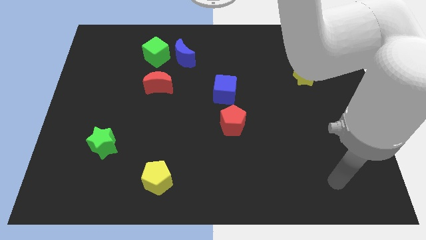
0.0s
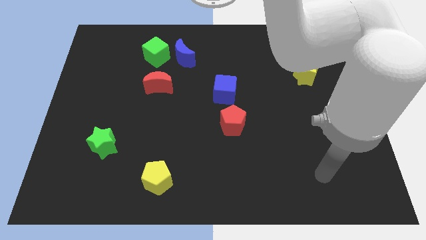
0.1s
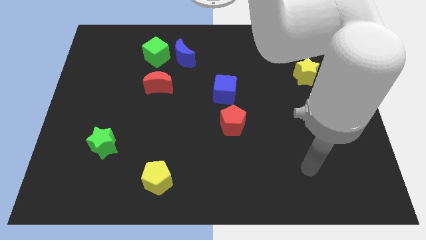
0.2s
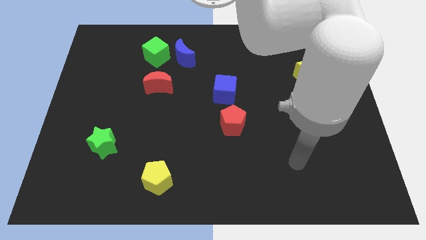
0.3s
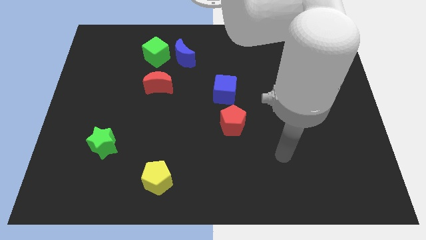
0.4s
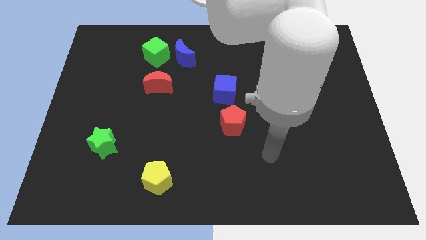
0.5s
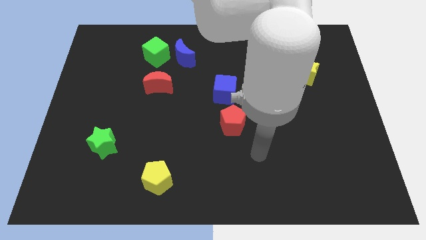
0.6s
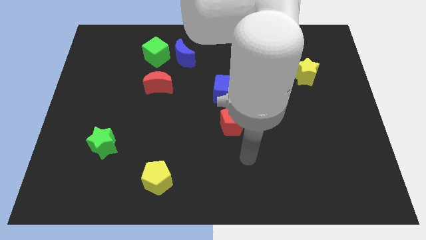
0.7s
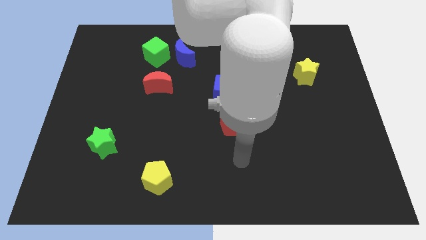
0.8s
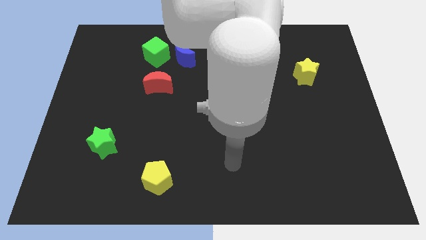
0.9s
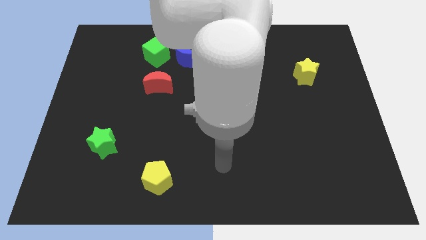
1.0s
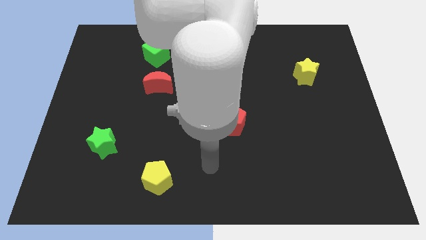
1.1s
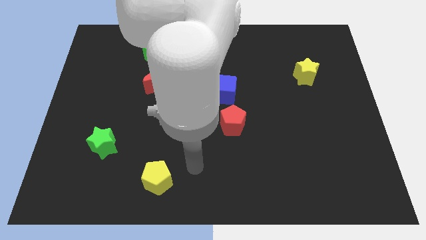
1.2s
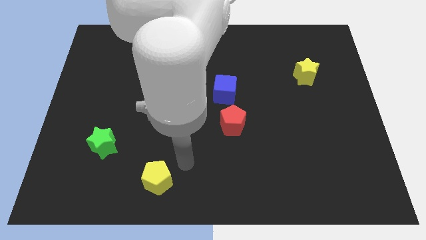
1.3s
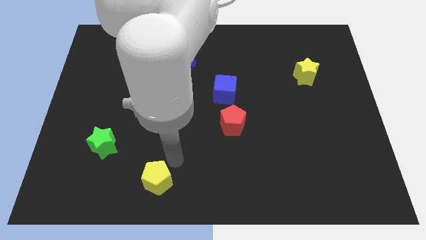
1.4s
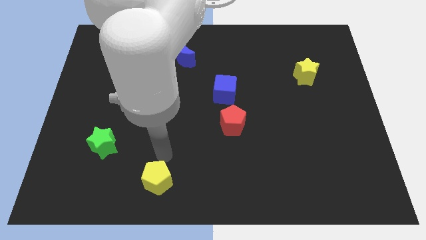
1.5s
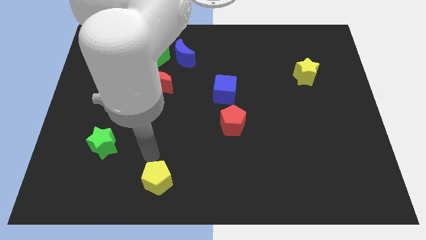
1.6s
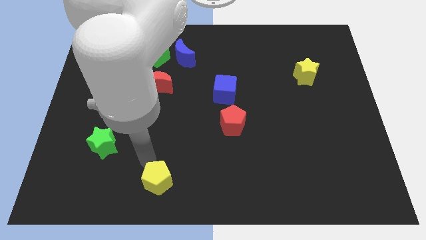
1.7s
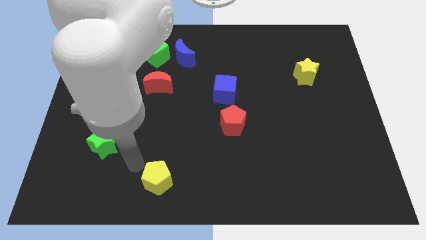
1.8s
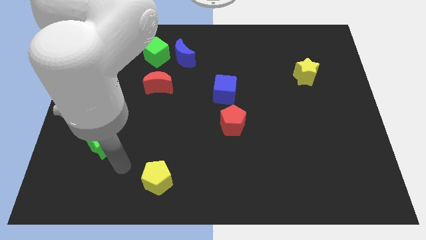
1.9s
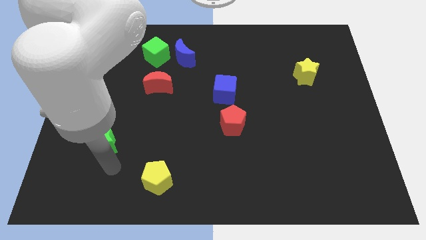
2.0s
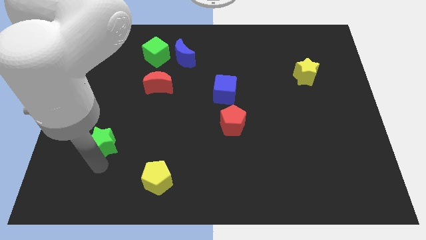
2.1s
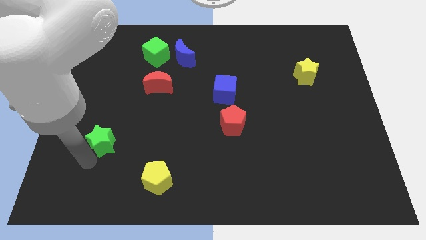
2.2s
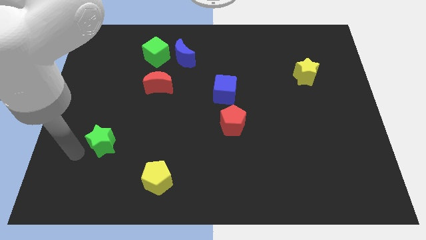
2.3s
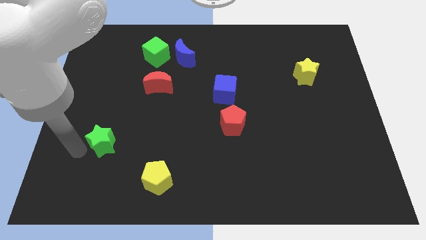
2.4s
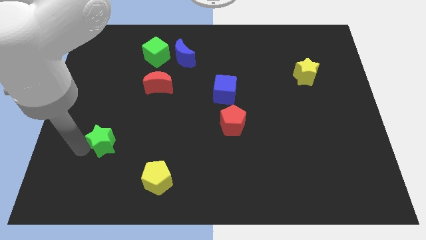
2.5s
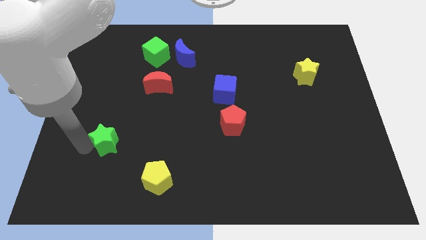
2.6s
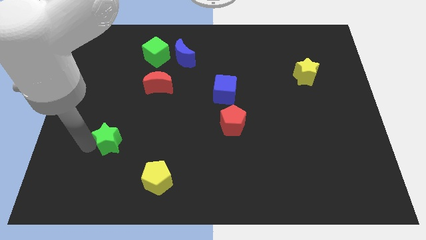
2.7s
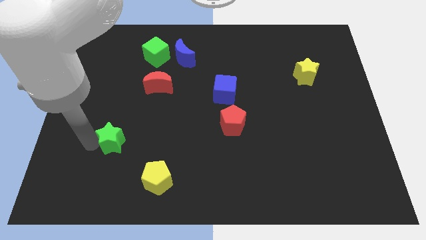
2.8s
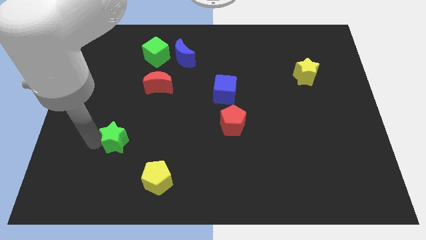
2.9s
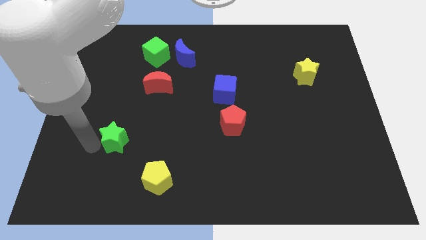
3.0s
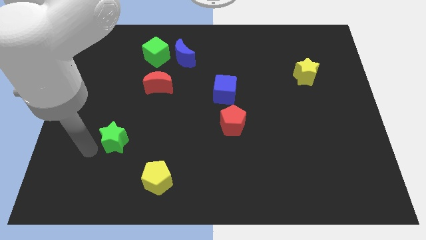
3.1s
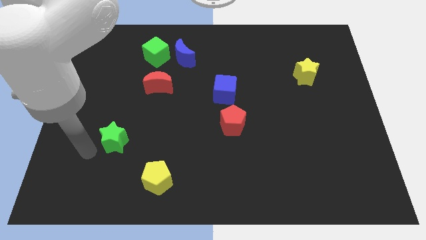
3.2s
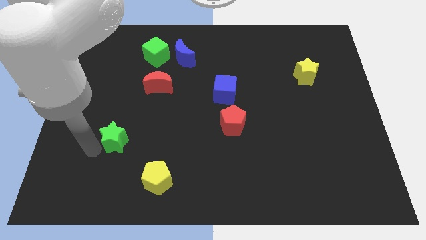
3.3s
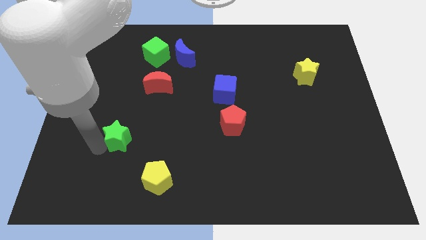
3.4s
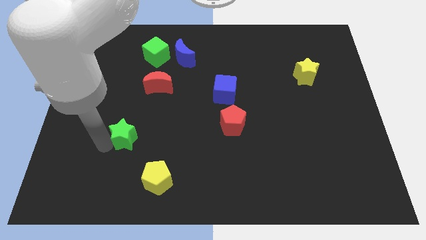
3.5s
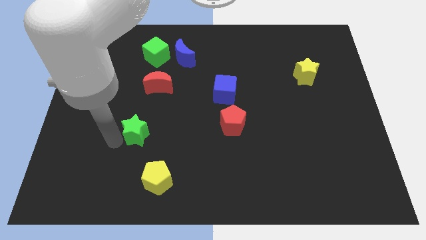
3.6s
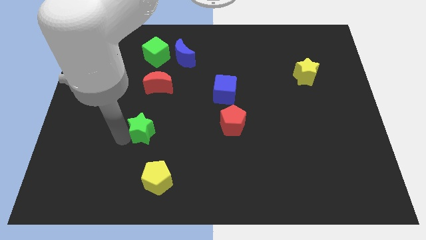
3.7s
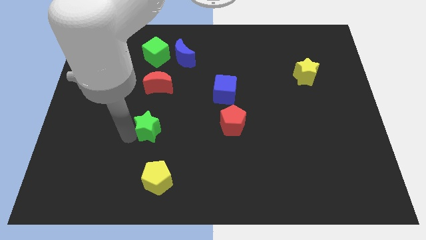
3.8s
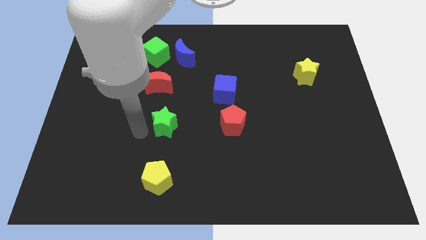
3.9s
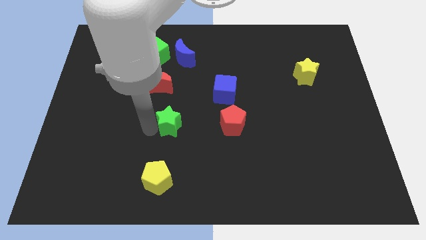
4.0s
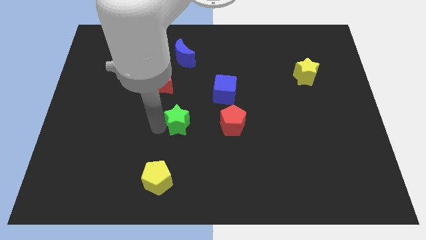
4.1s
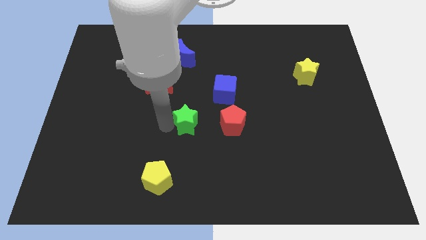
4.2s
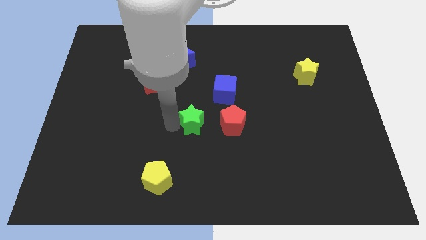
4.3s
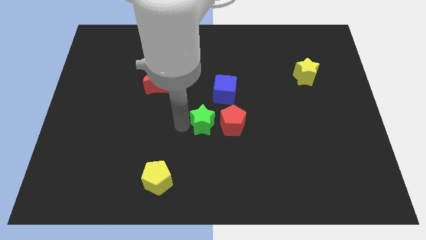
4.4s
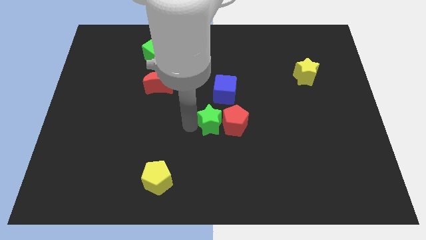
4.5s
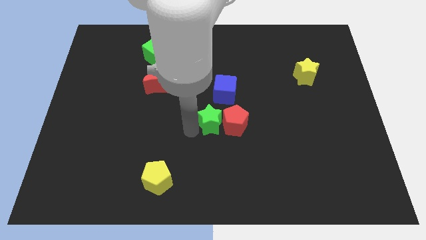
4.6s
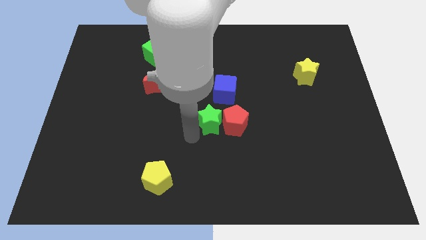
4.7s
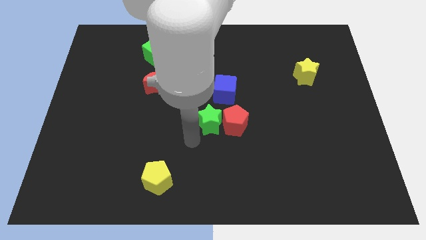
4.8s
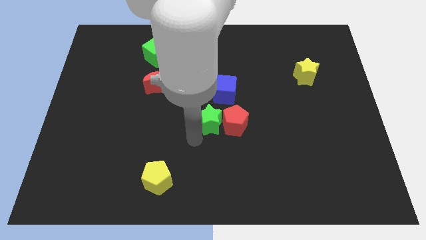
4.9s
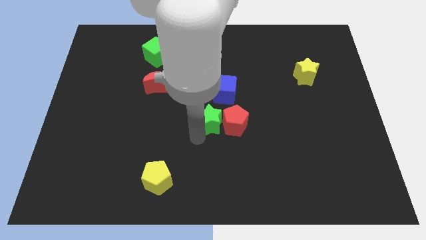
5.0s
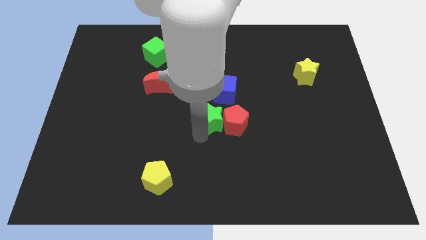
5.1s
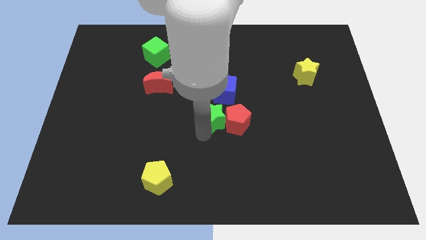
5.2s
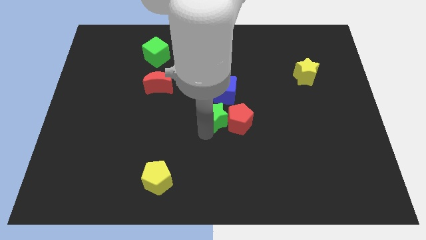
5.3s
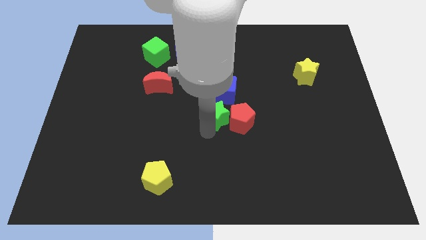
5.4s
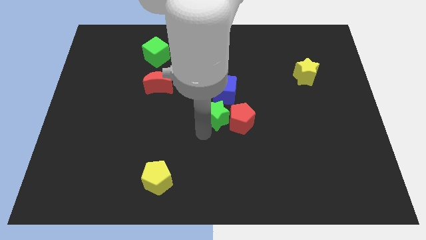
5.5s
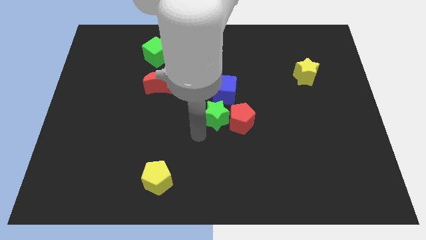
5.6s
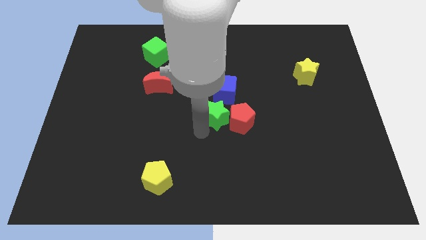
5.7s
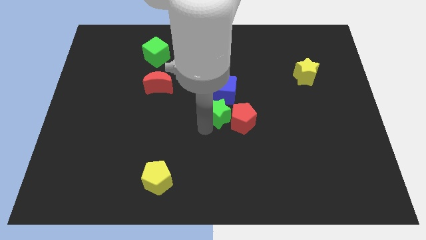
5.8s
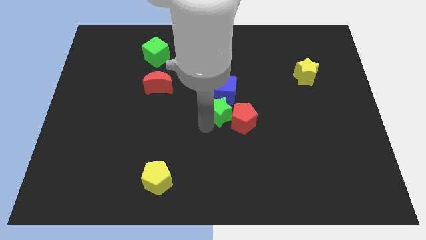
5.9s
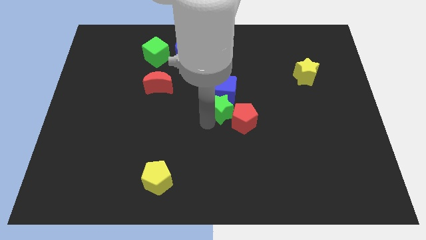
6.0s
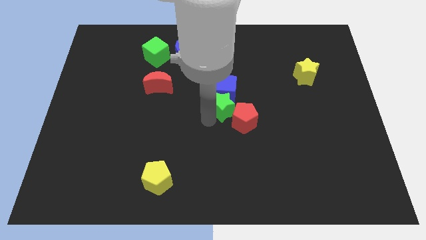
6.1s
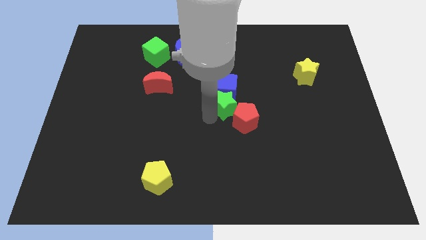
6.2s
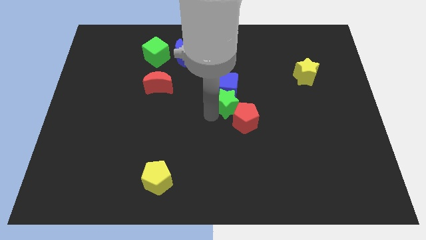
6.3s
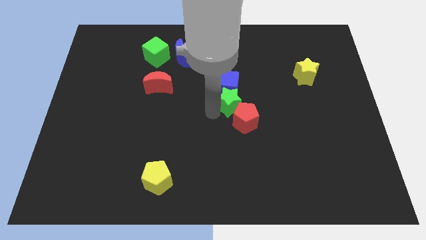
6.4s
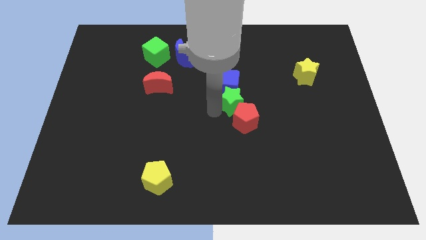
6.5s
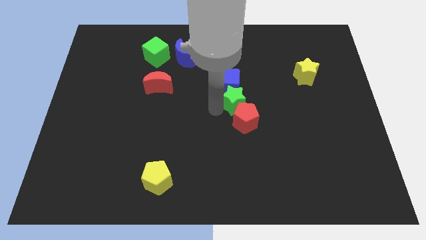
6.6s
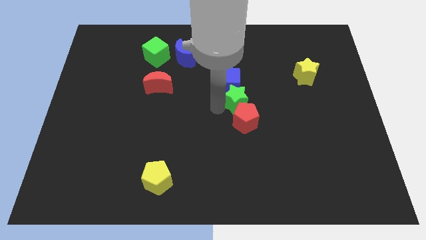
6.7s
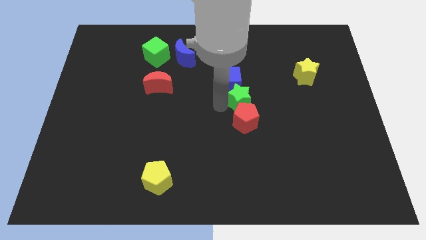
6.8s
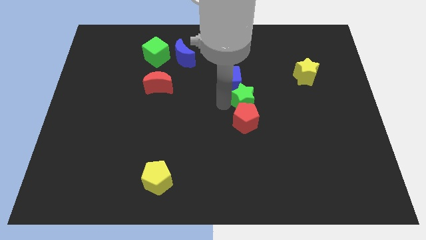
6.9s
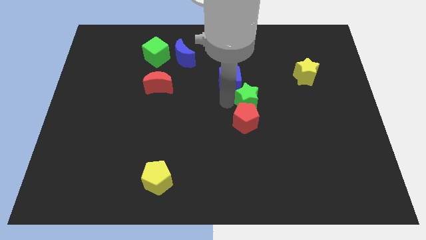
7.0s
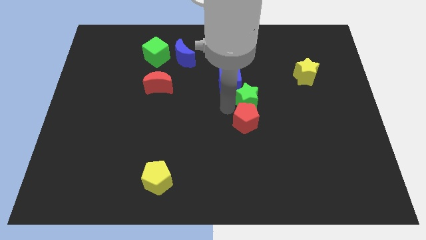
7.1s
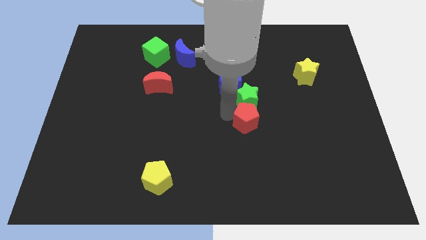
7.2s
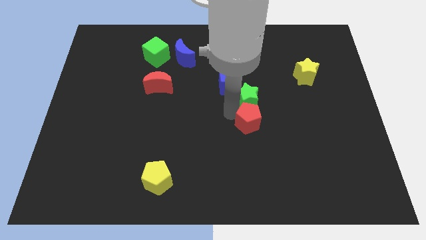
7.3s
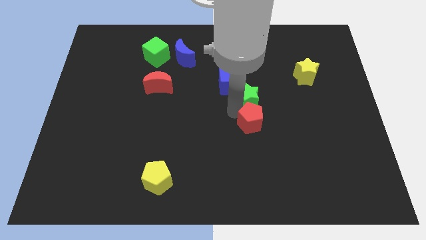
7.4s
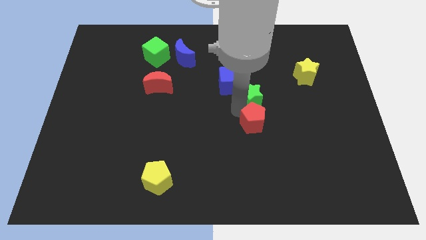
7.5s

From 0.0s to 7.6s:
slide the green star to the right side of the blue cube
